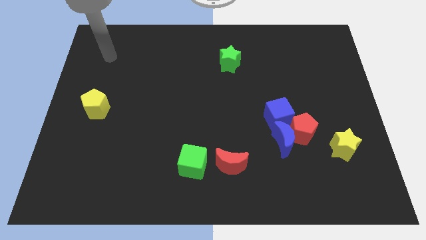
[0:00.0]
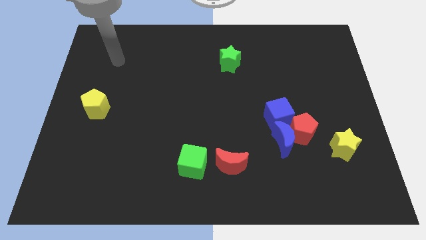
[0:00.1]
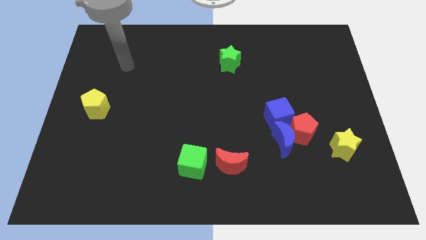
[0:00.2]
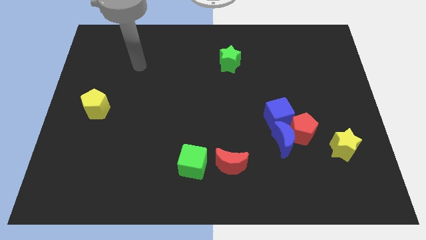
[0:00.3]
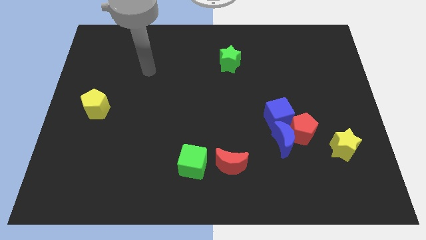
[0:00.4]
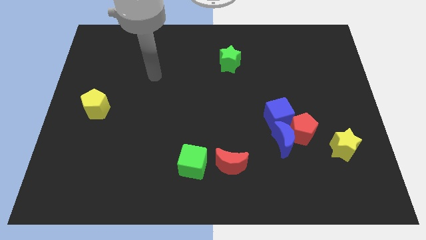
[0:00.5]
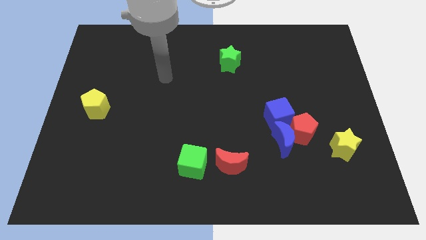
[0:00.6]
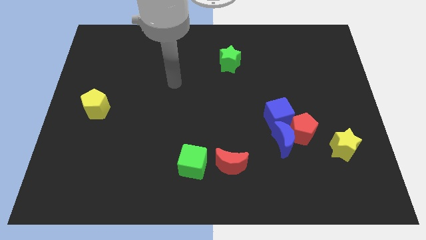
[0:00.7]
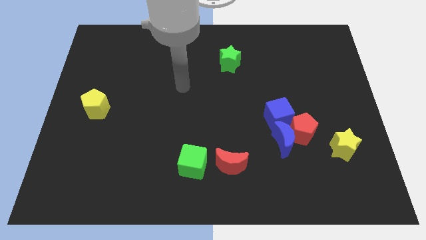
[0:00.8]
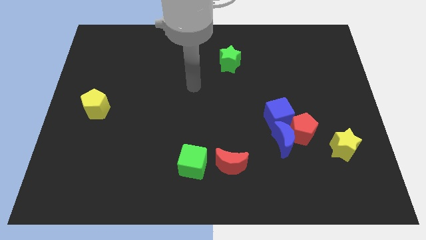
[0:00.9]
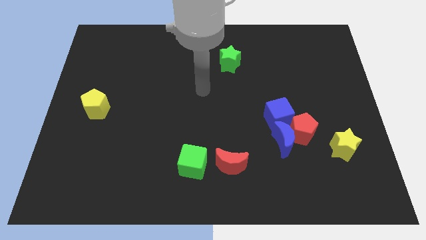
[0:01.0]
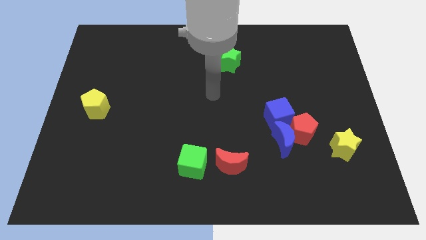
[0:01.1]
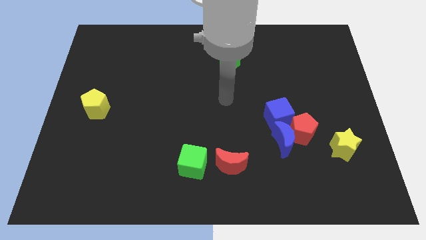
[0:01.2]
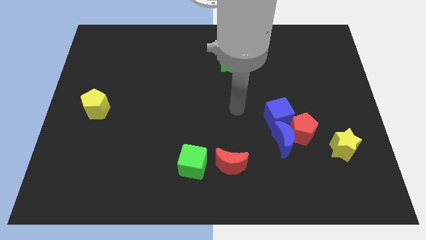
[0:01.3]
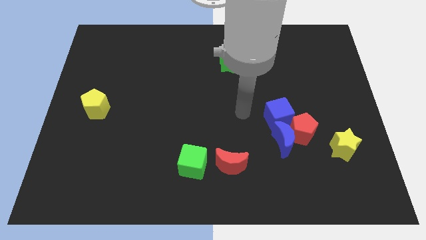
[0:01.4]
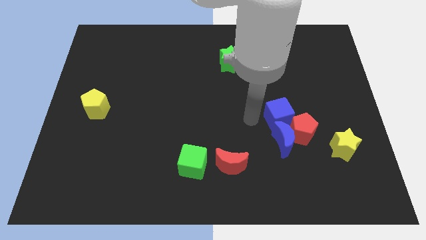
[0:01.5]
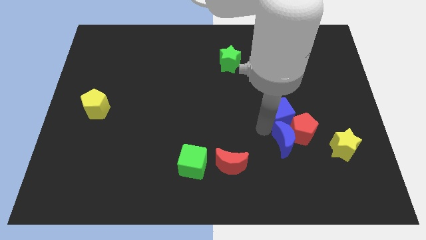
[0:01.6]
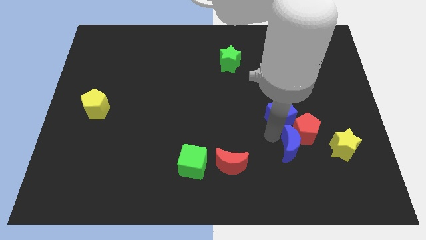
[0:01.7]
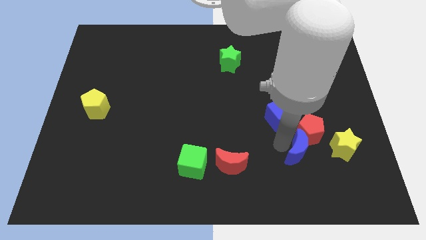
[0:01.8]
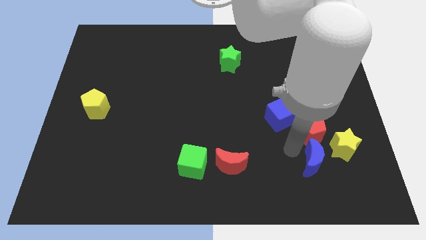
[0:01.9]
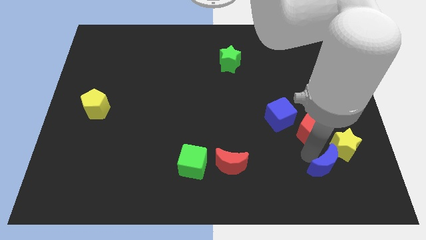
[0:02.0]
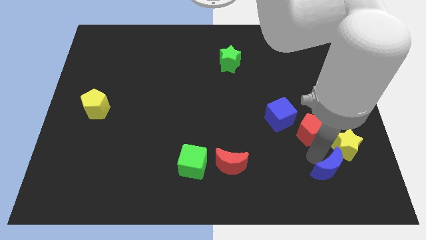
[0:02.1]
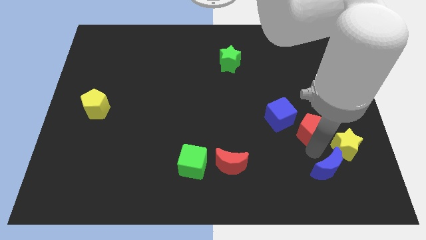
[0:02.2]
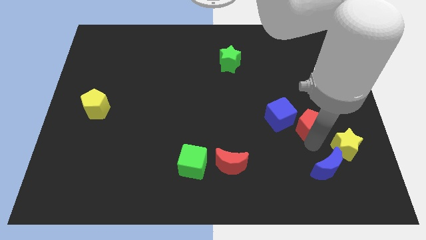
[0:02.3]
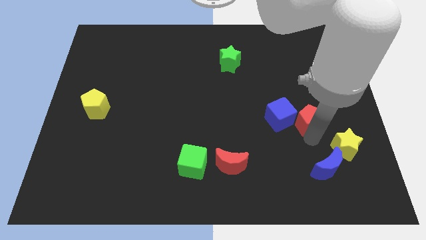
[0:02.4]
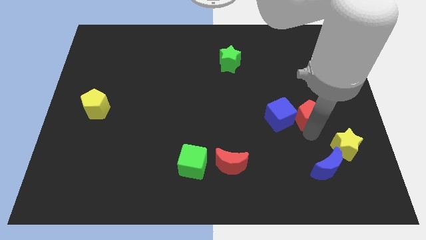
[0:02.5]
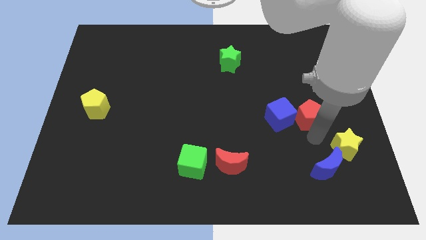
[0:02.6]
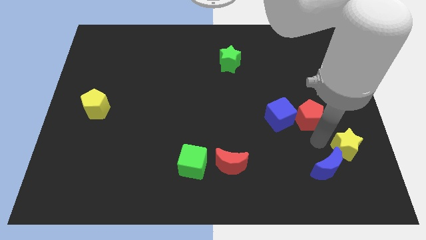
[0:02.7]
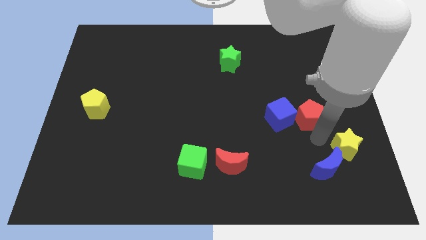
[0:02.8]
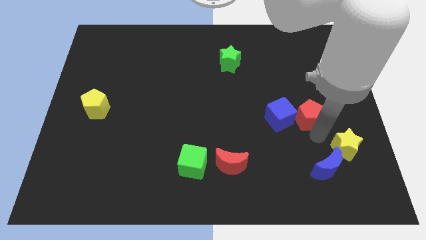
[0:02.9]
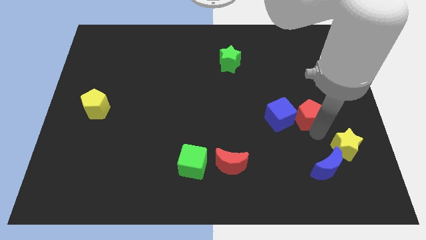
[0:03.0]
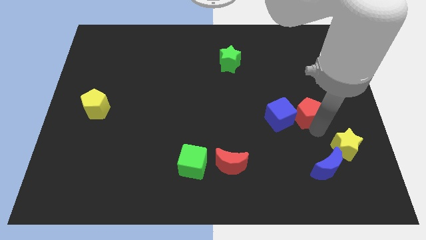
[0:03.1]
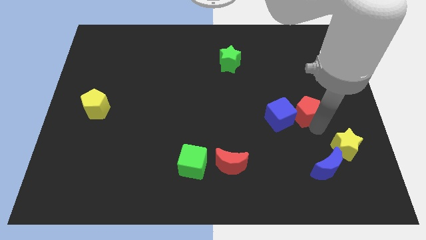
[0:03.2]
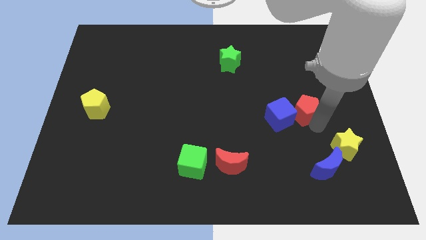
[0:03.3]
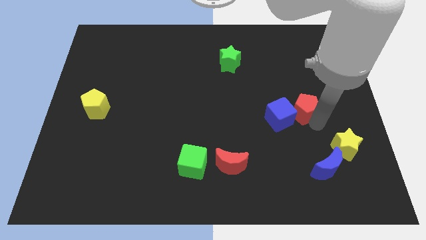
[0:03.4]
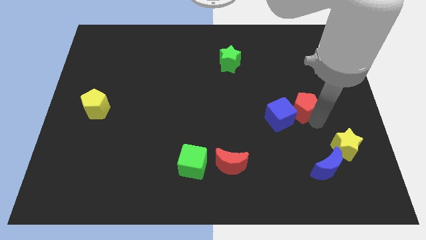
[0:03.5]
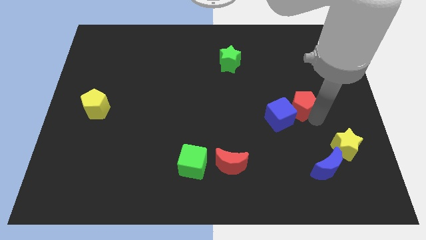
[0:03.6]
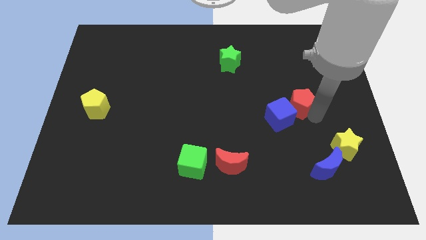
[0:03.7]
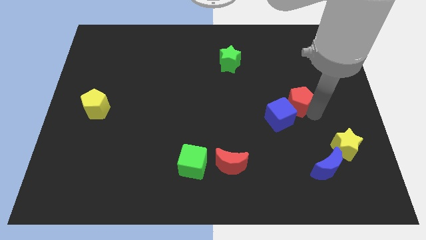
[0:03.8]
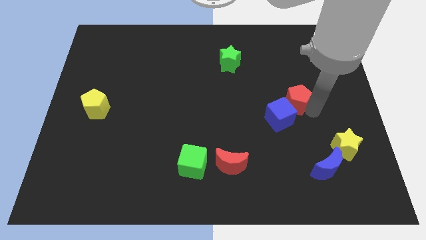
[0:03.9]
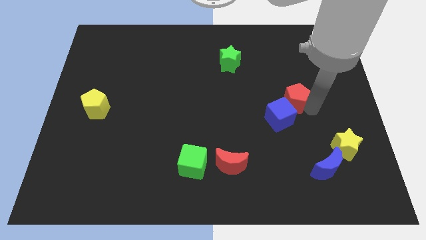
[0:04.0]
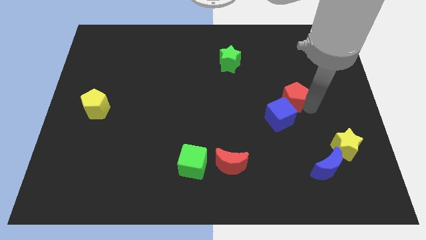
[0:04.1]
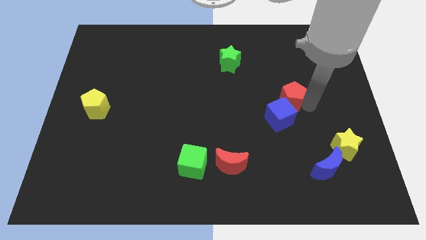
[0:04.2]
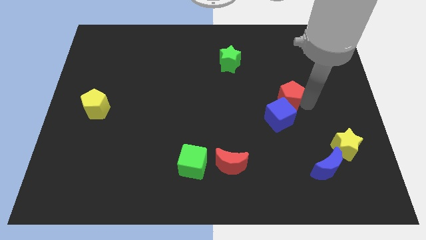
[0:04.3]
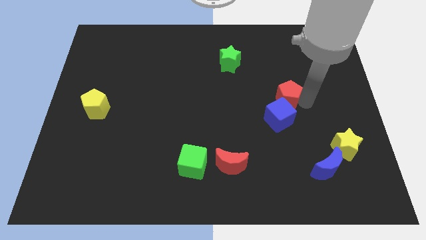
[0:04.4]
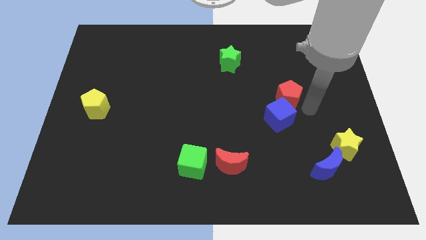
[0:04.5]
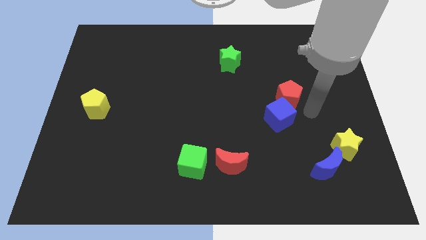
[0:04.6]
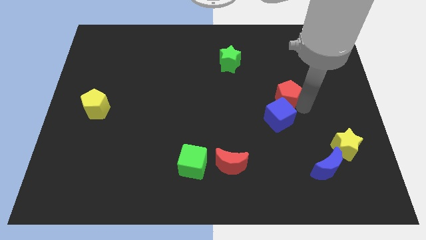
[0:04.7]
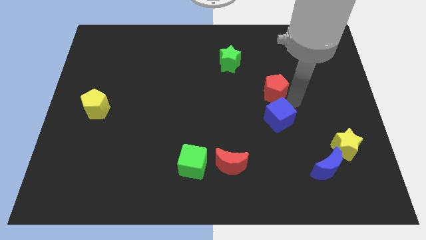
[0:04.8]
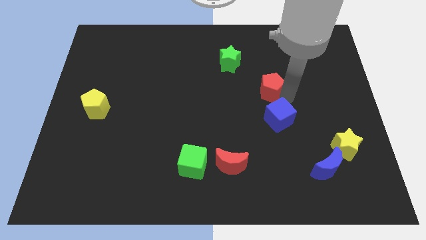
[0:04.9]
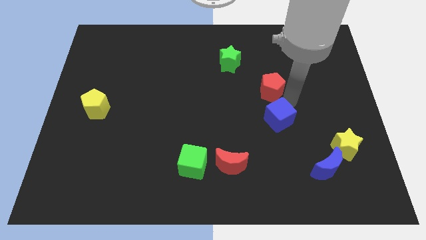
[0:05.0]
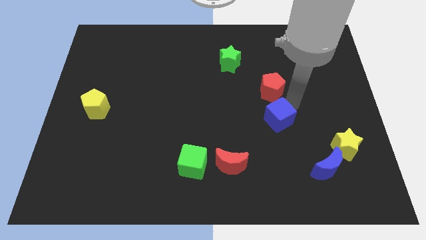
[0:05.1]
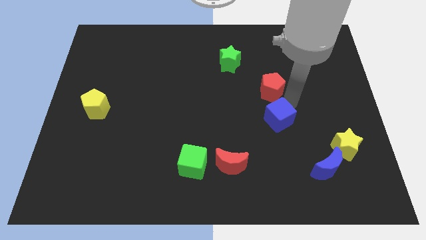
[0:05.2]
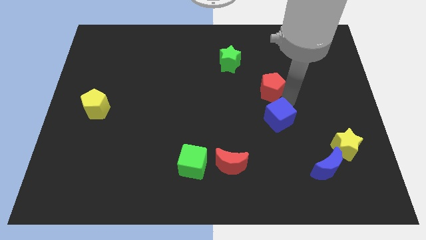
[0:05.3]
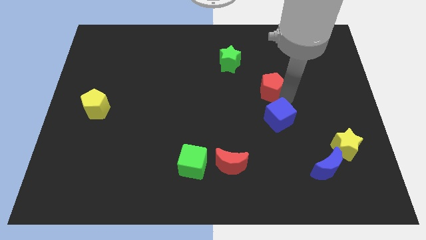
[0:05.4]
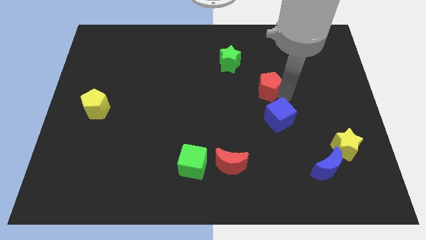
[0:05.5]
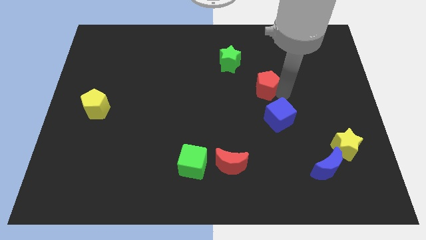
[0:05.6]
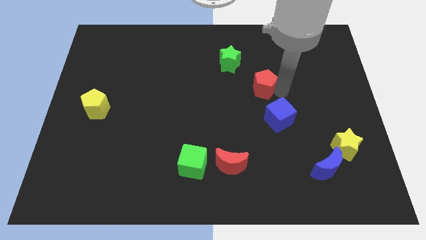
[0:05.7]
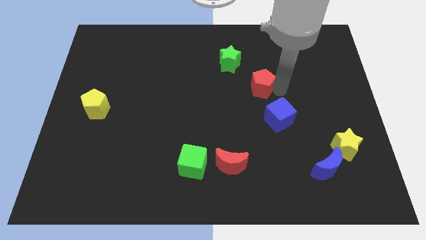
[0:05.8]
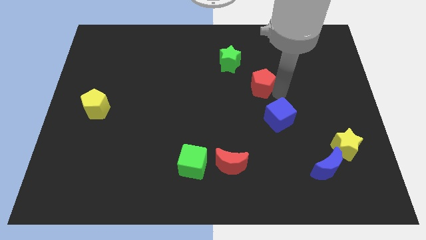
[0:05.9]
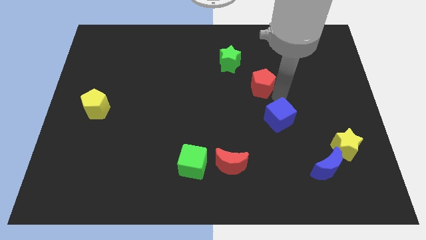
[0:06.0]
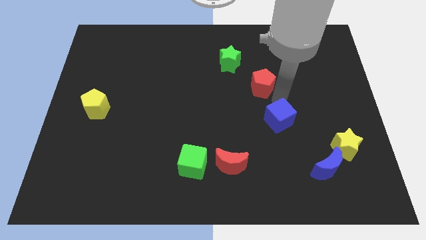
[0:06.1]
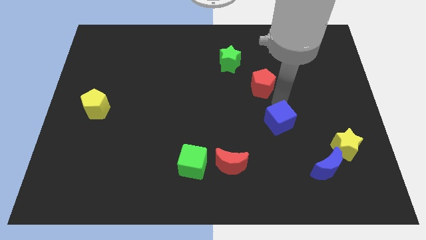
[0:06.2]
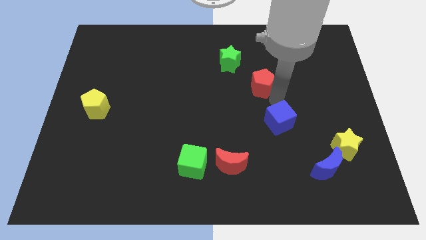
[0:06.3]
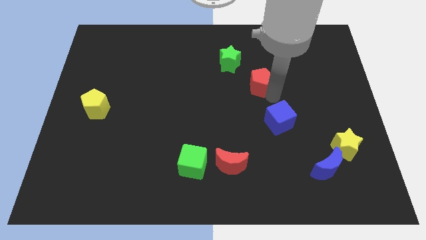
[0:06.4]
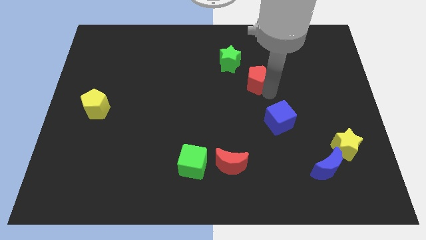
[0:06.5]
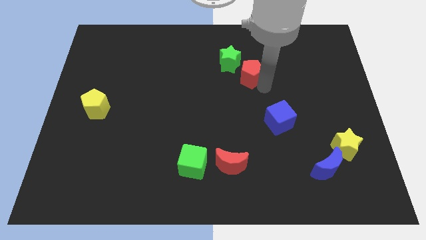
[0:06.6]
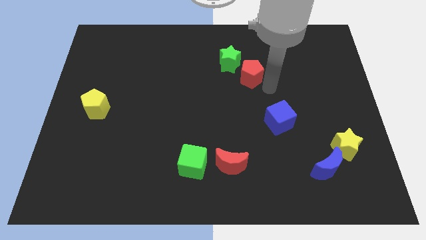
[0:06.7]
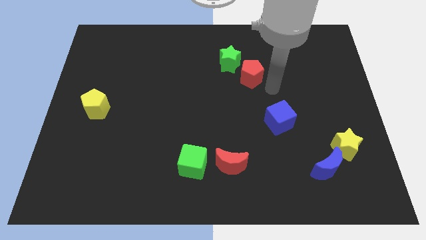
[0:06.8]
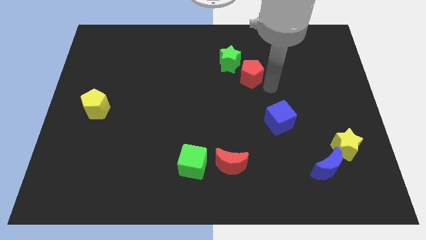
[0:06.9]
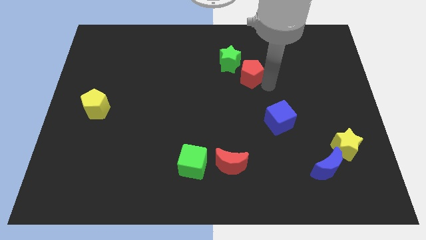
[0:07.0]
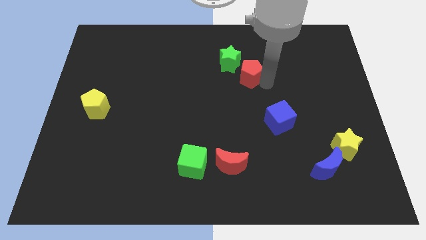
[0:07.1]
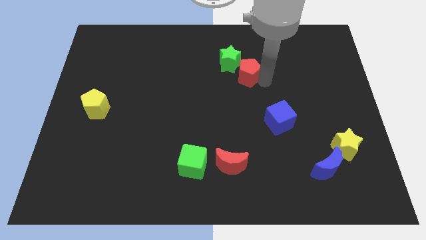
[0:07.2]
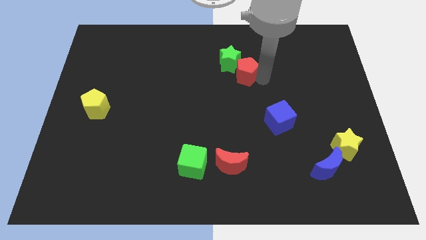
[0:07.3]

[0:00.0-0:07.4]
push the red pentagon to the green star
